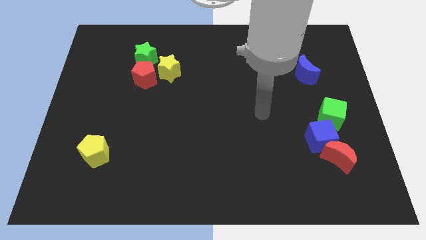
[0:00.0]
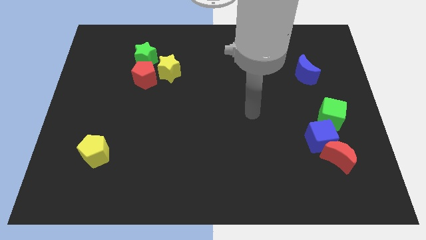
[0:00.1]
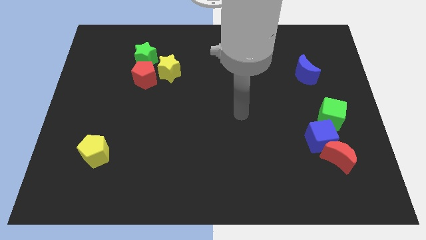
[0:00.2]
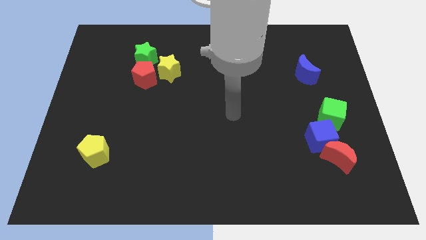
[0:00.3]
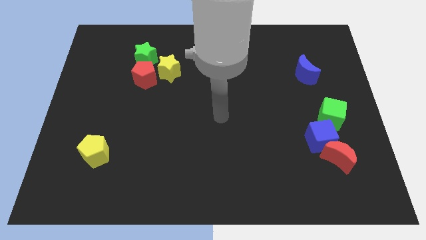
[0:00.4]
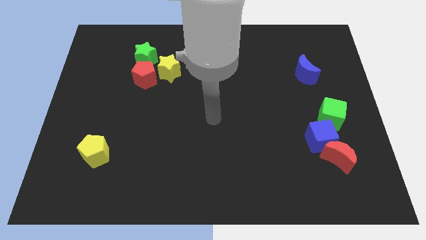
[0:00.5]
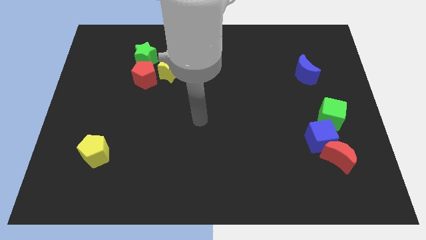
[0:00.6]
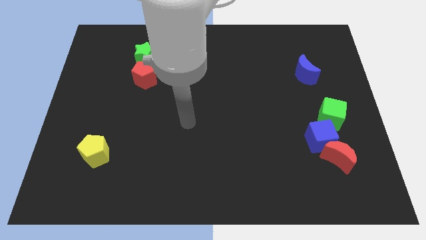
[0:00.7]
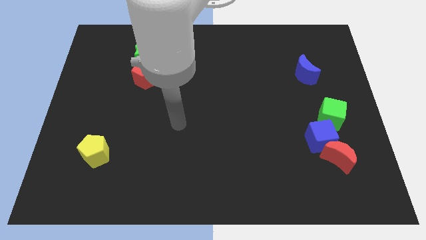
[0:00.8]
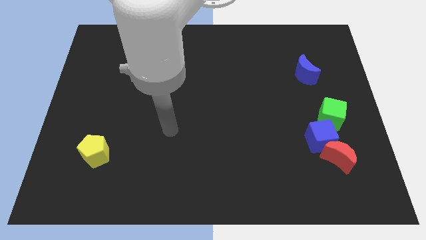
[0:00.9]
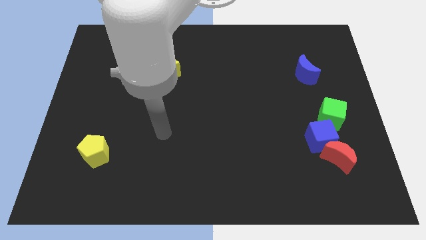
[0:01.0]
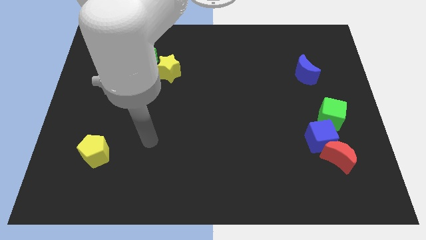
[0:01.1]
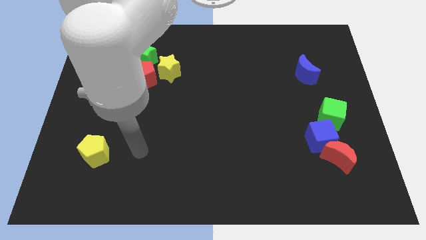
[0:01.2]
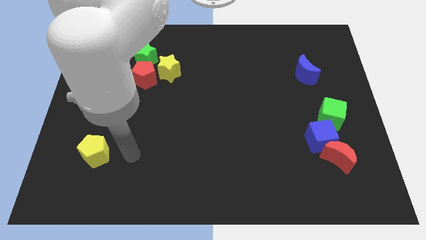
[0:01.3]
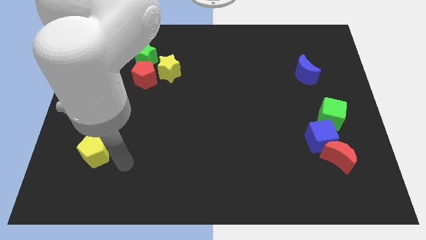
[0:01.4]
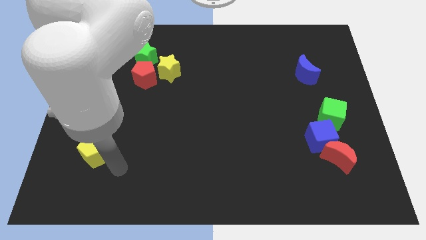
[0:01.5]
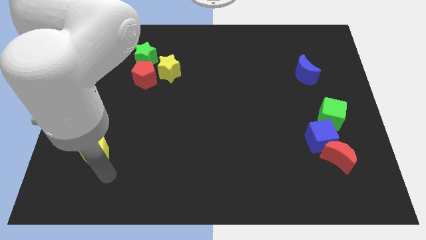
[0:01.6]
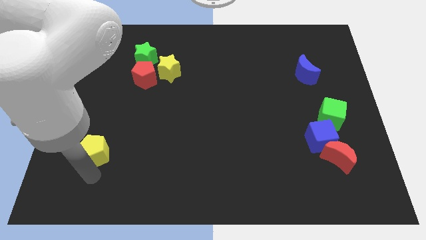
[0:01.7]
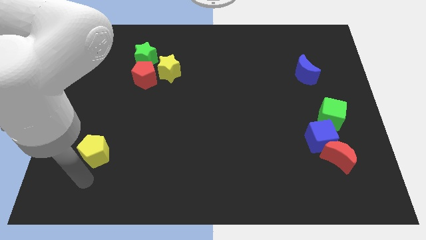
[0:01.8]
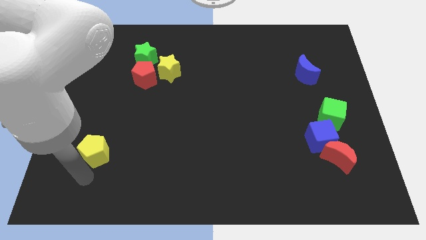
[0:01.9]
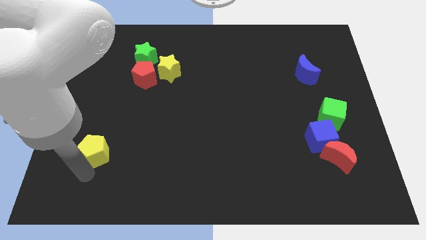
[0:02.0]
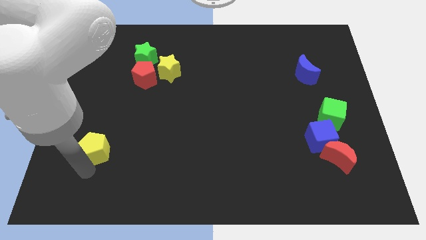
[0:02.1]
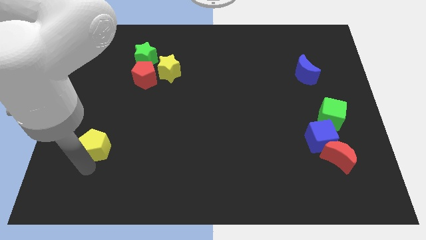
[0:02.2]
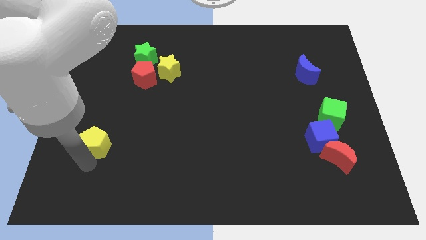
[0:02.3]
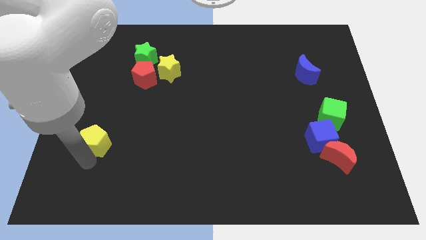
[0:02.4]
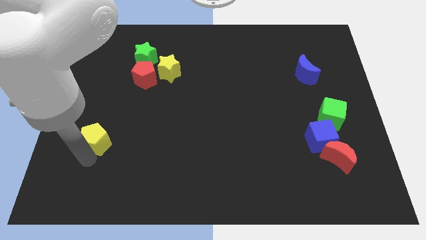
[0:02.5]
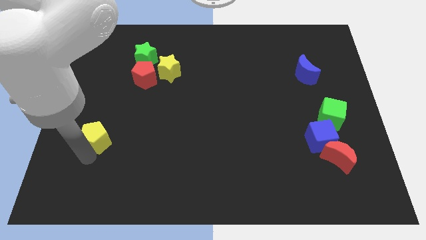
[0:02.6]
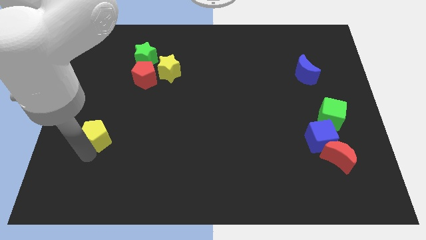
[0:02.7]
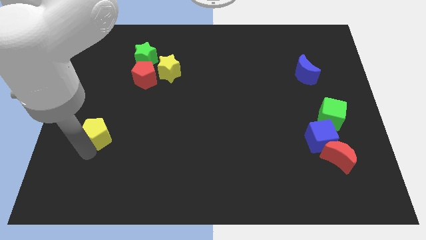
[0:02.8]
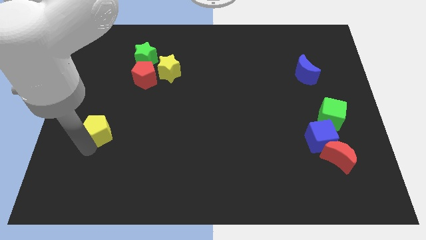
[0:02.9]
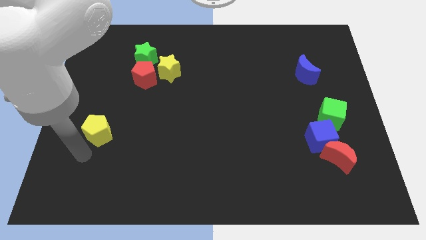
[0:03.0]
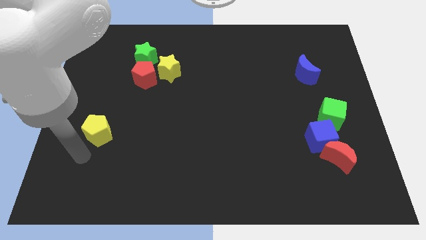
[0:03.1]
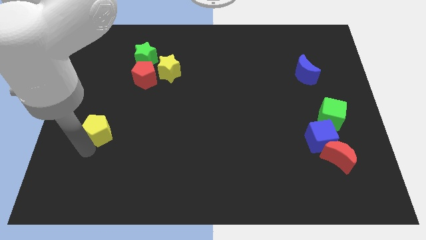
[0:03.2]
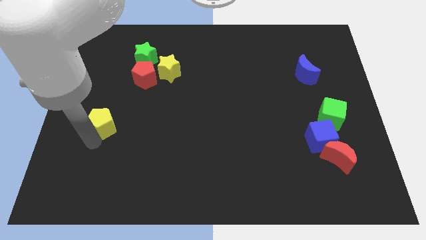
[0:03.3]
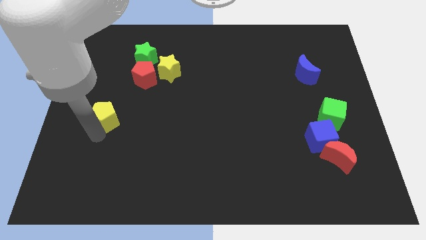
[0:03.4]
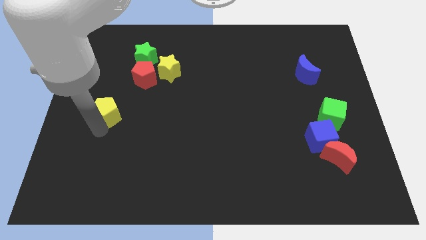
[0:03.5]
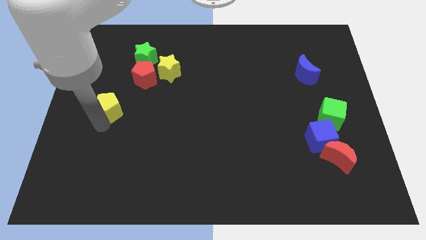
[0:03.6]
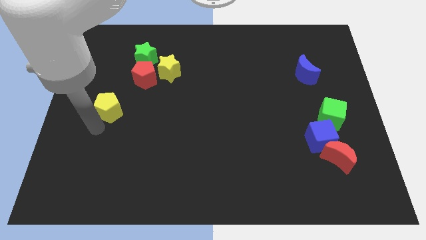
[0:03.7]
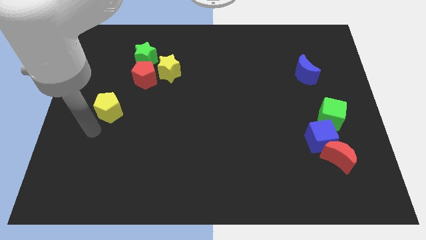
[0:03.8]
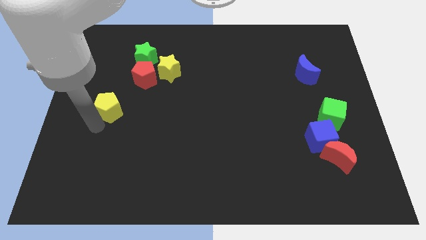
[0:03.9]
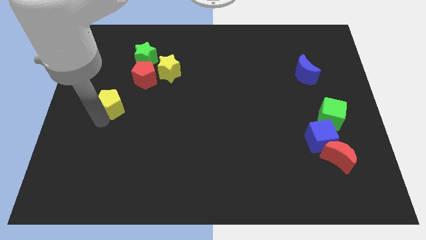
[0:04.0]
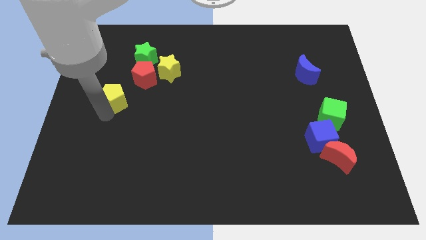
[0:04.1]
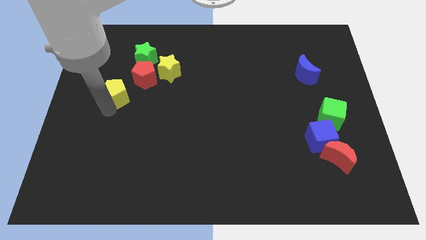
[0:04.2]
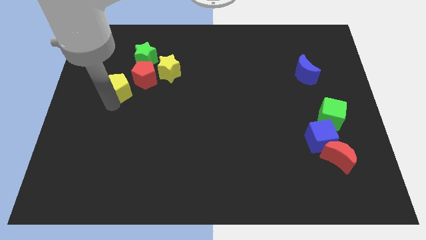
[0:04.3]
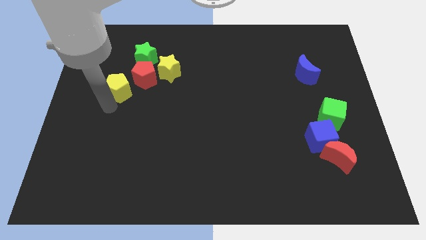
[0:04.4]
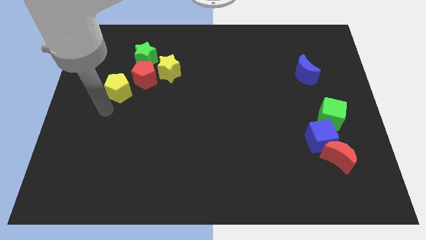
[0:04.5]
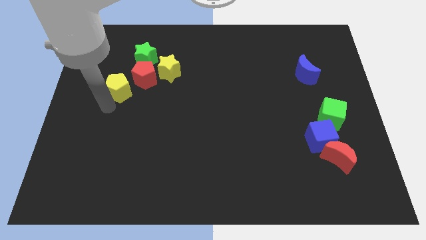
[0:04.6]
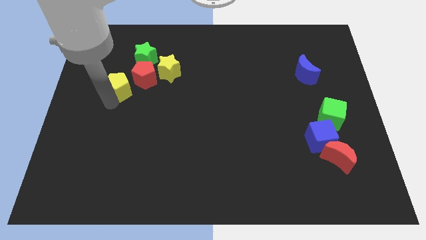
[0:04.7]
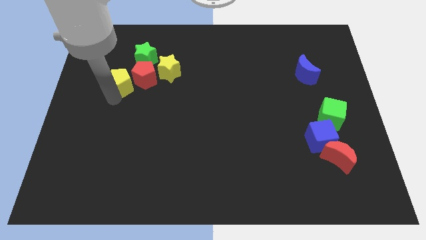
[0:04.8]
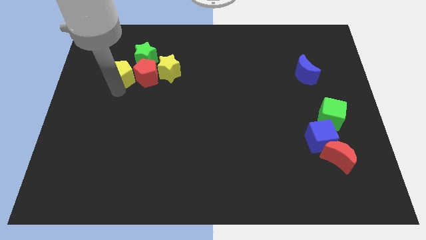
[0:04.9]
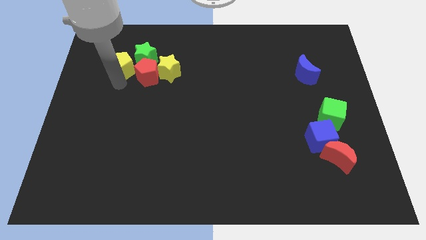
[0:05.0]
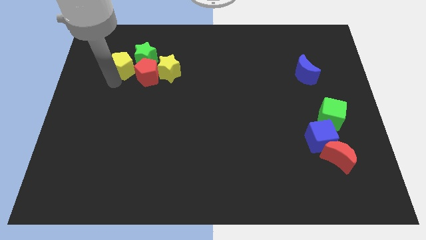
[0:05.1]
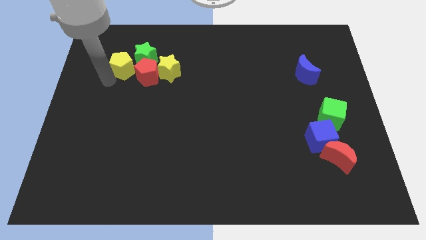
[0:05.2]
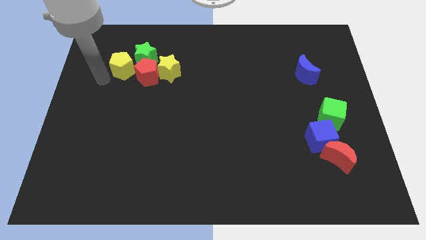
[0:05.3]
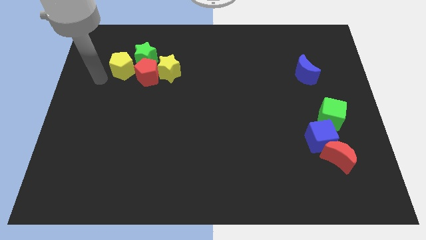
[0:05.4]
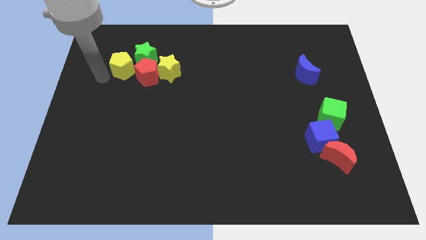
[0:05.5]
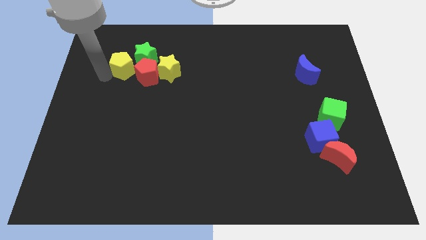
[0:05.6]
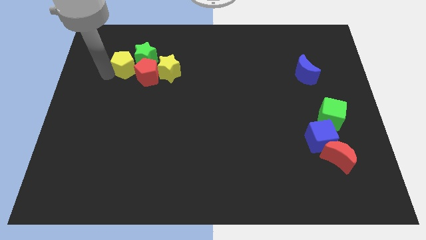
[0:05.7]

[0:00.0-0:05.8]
slide the yellow pentagon towards the green star

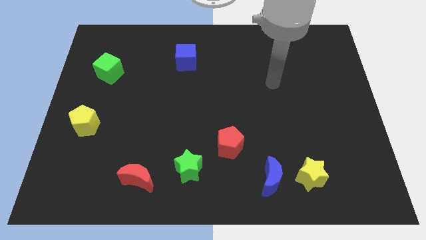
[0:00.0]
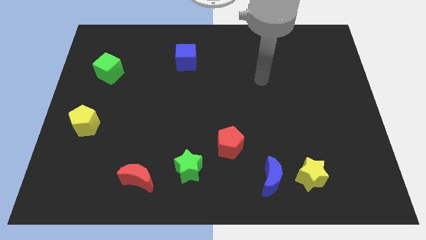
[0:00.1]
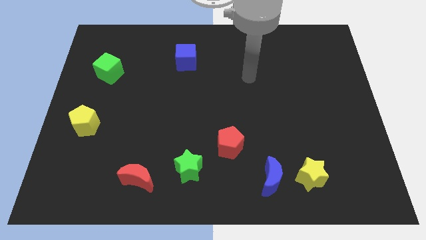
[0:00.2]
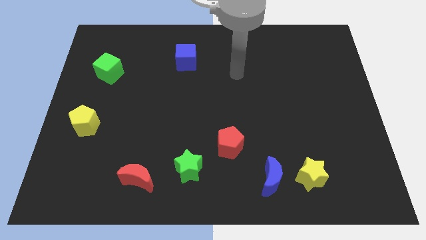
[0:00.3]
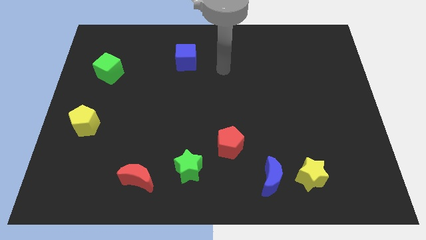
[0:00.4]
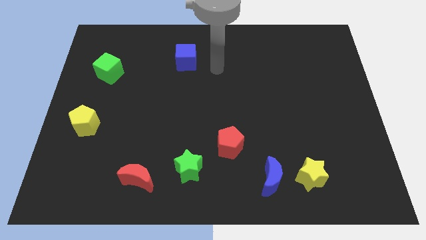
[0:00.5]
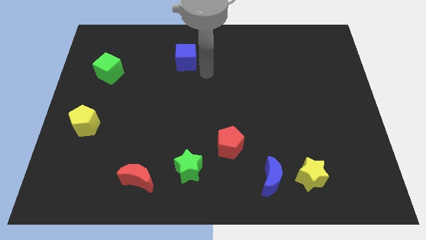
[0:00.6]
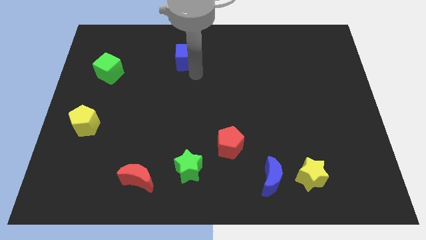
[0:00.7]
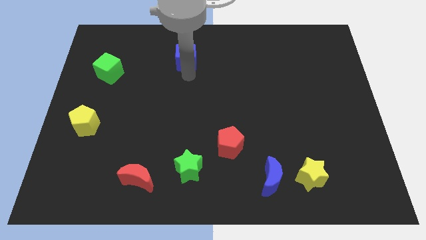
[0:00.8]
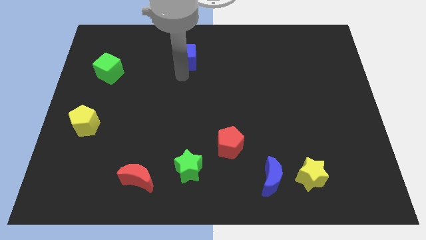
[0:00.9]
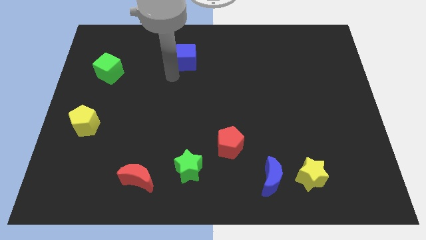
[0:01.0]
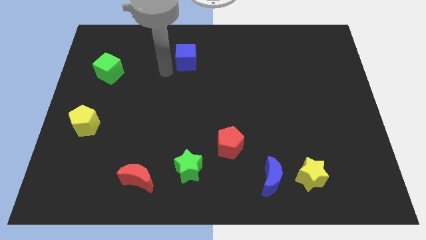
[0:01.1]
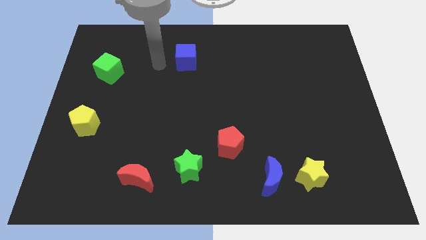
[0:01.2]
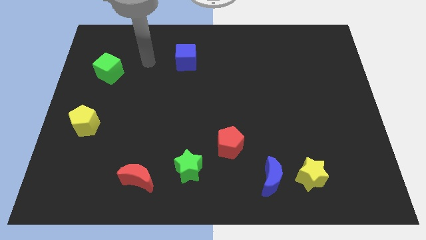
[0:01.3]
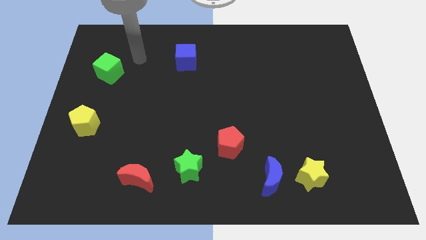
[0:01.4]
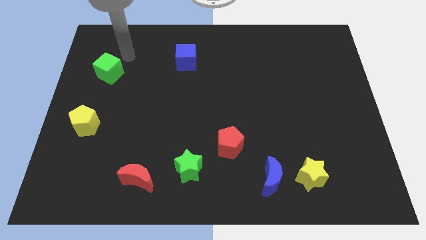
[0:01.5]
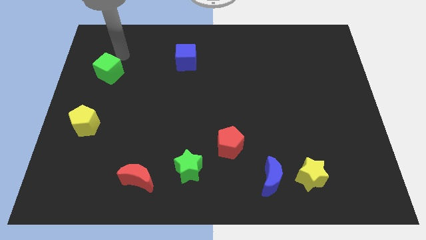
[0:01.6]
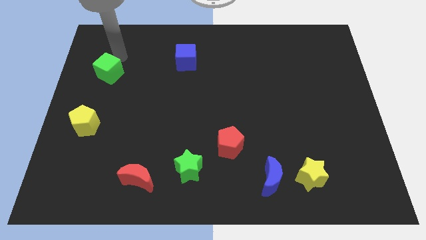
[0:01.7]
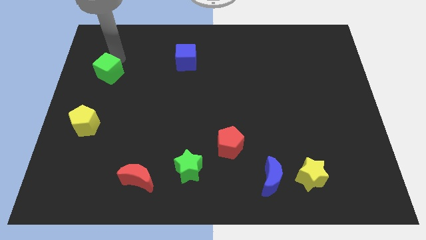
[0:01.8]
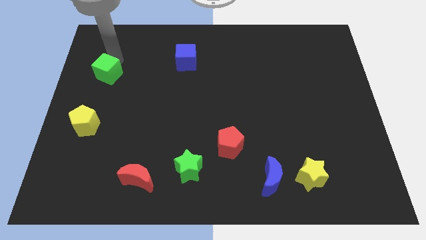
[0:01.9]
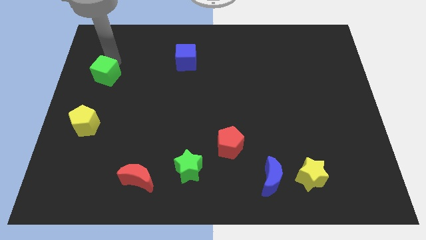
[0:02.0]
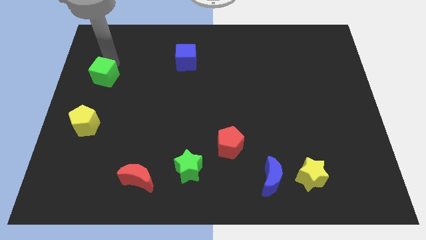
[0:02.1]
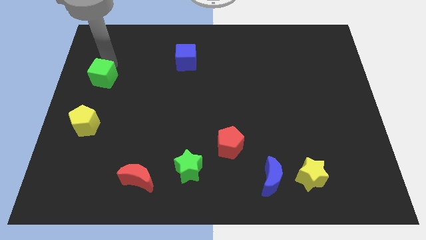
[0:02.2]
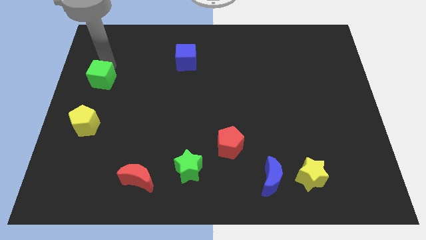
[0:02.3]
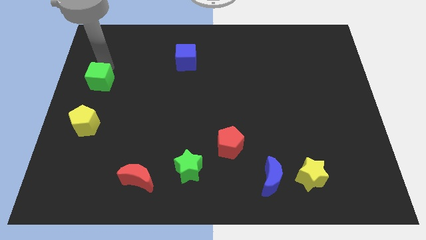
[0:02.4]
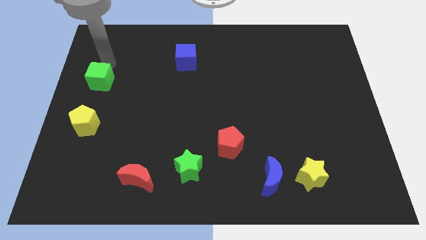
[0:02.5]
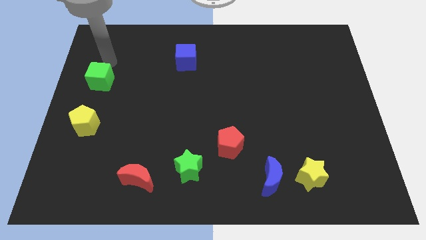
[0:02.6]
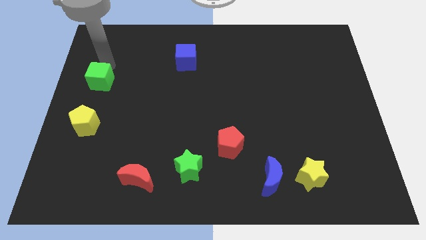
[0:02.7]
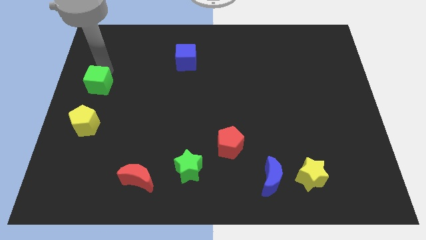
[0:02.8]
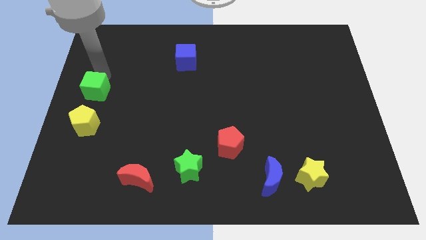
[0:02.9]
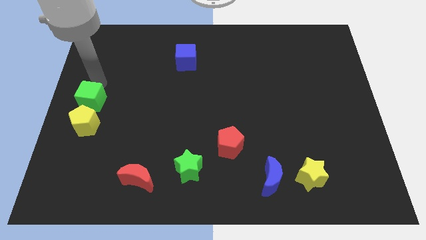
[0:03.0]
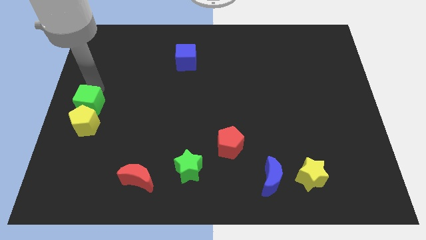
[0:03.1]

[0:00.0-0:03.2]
slide the green cube next to the yellow pentagon
